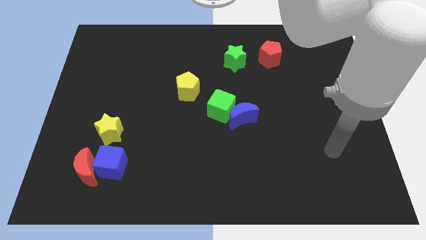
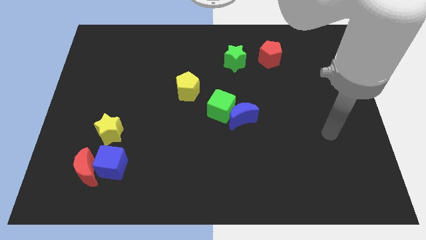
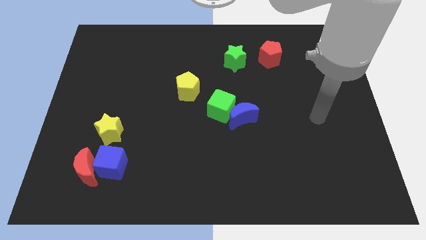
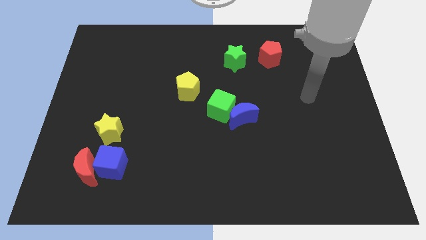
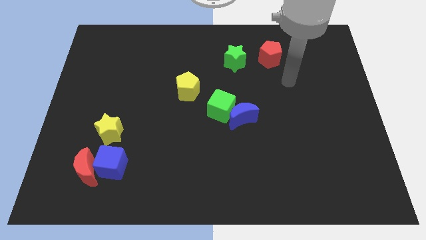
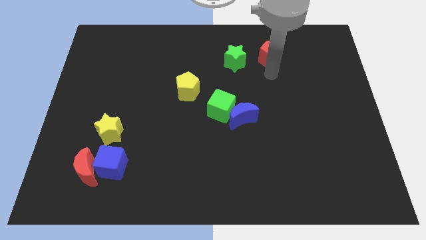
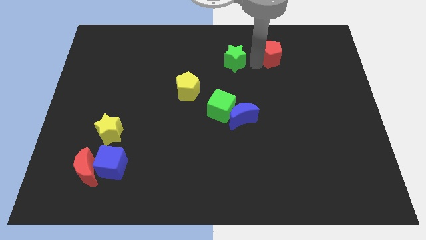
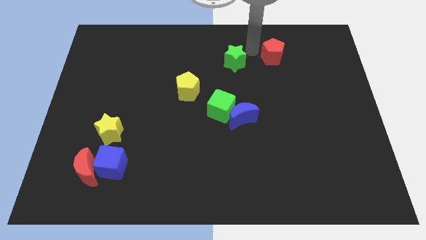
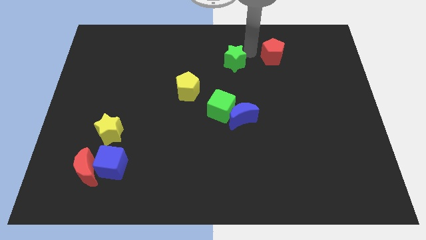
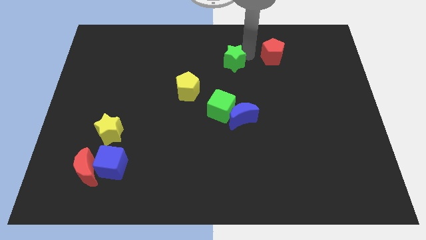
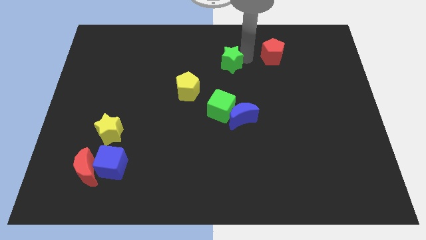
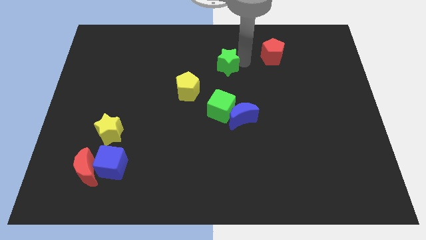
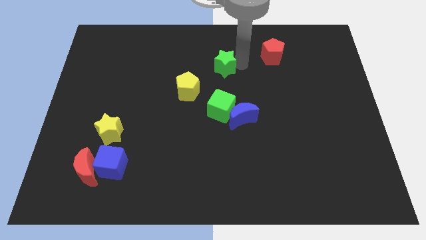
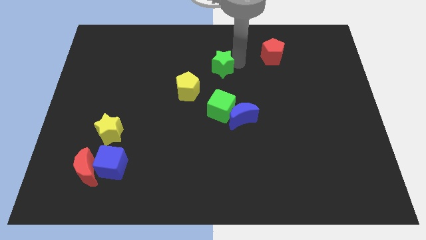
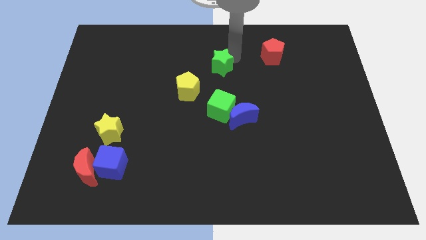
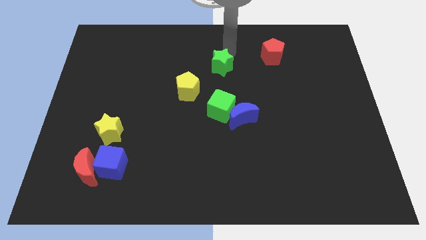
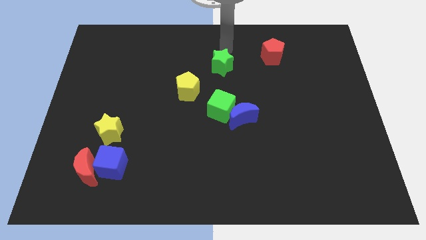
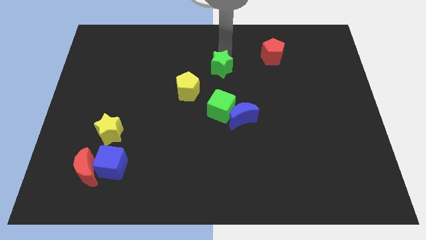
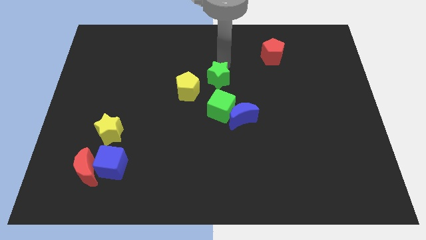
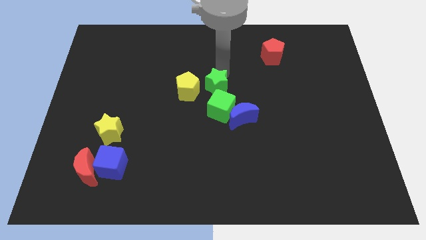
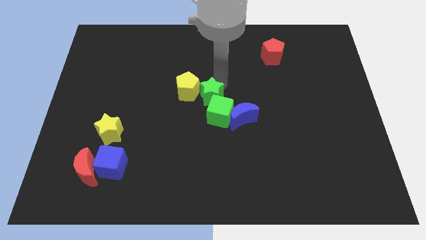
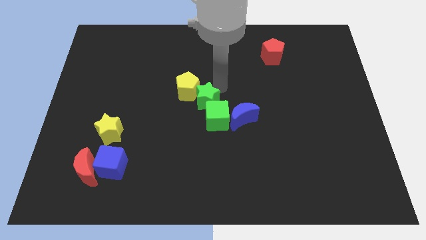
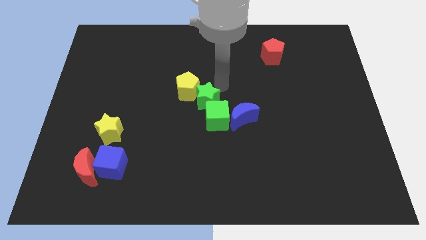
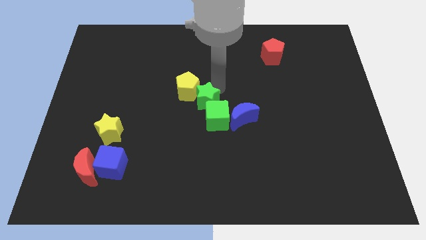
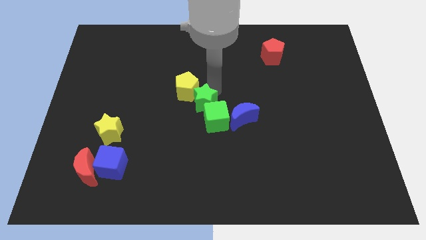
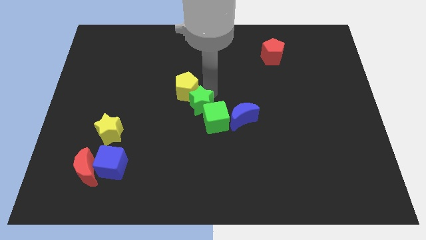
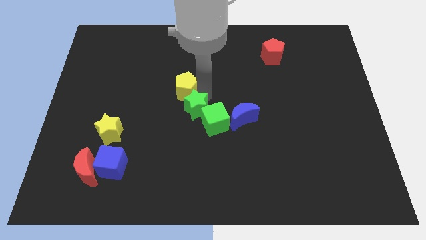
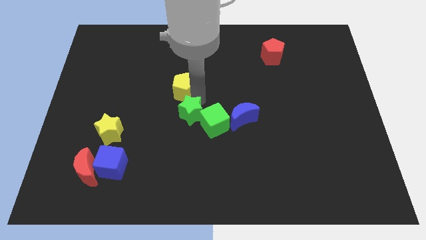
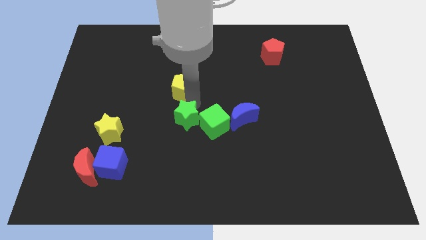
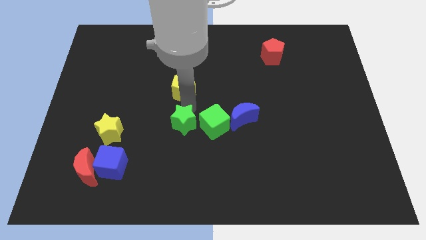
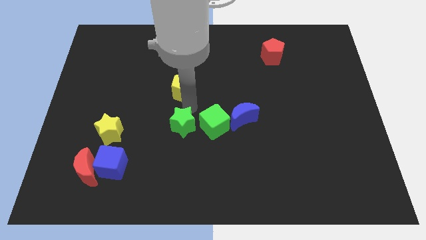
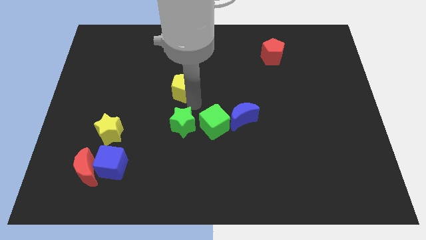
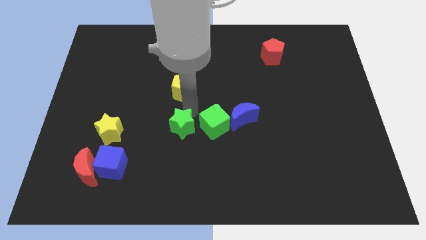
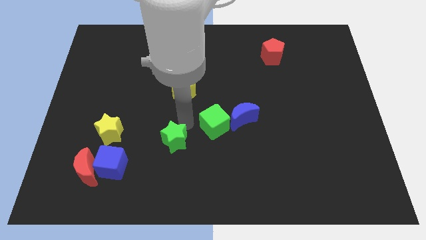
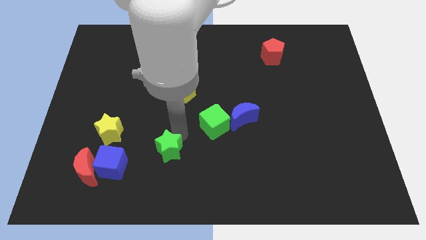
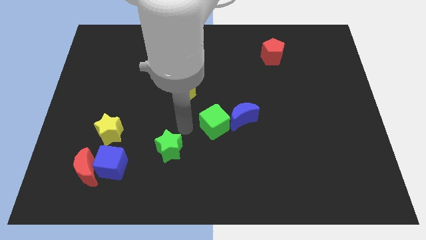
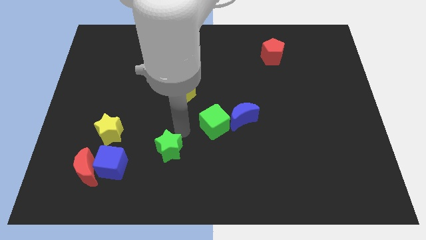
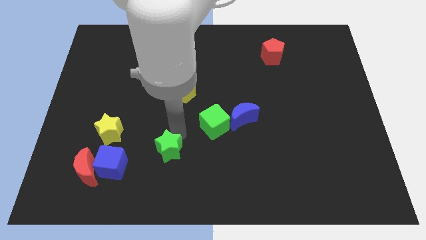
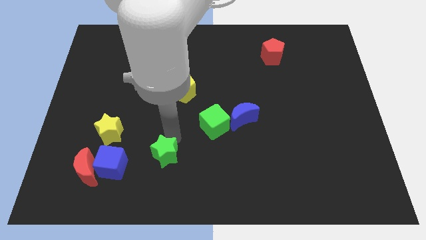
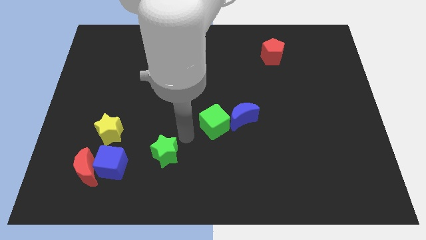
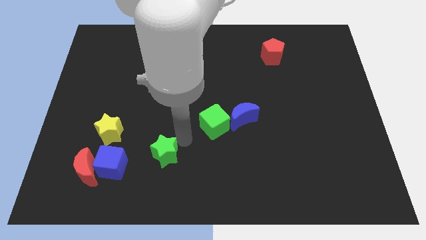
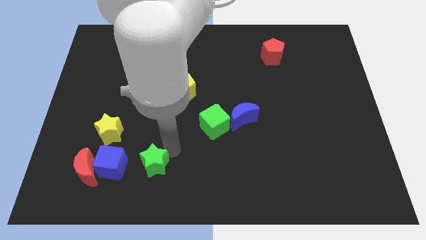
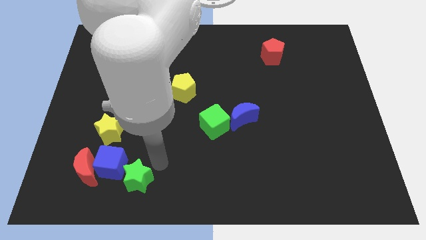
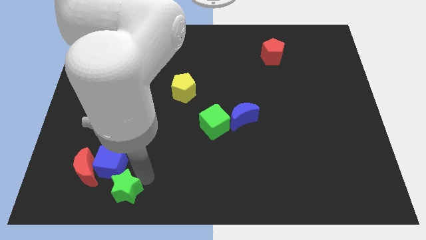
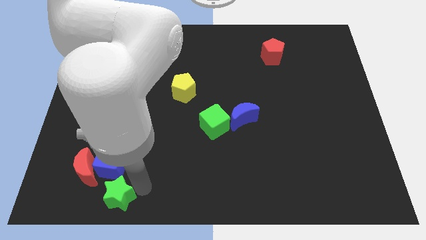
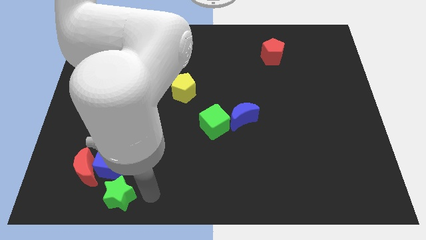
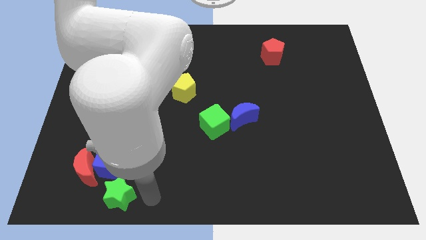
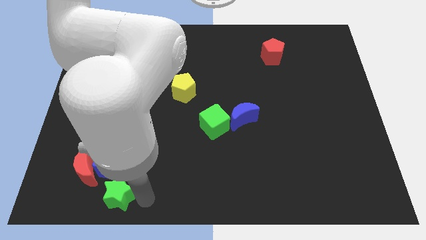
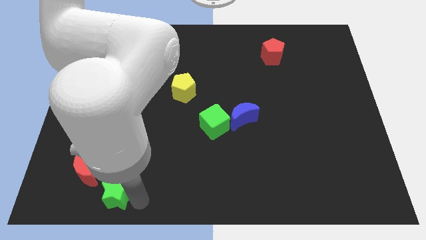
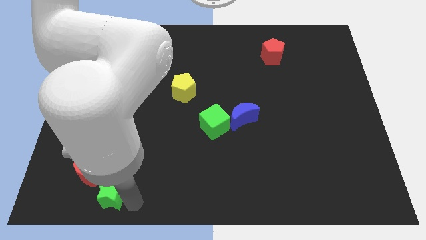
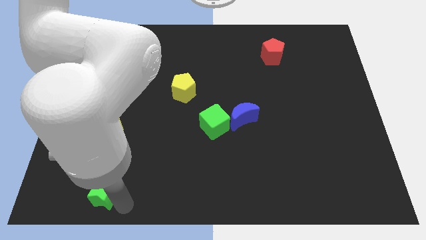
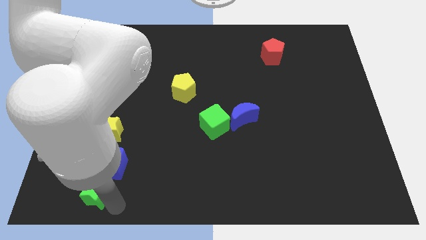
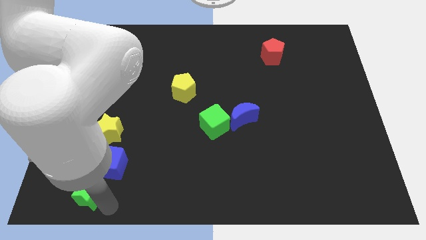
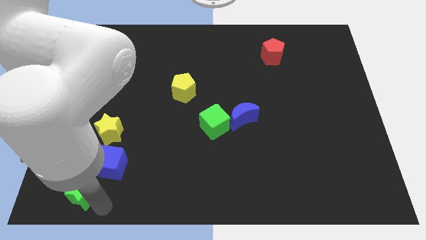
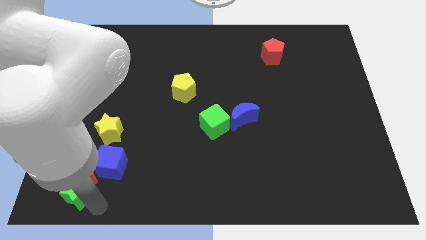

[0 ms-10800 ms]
put the green star to the bottom left of the board

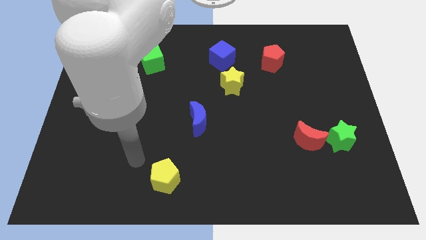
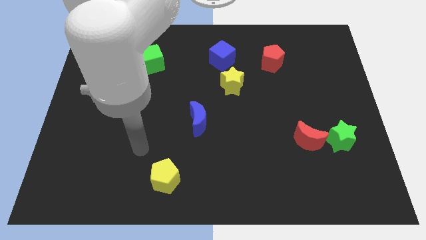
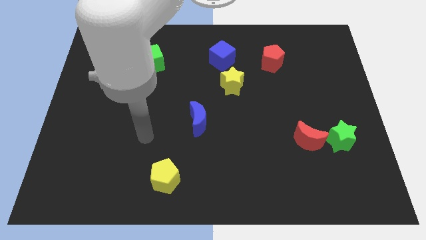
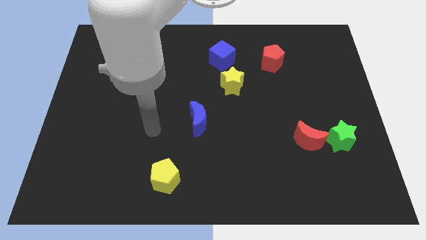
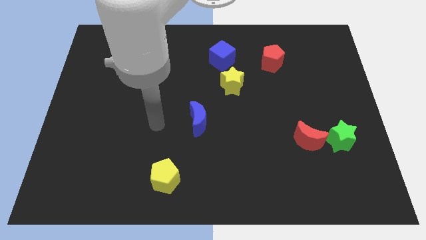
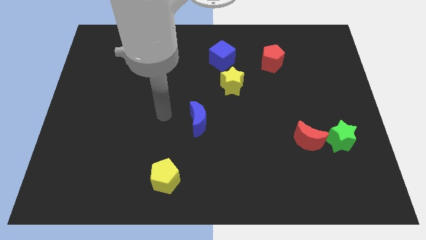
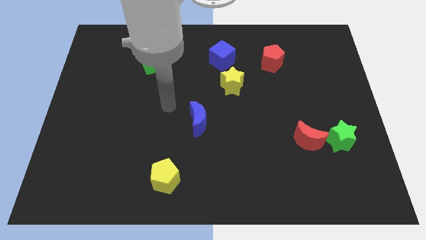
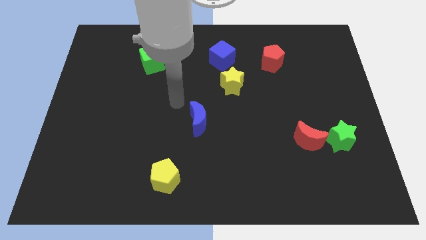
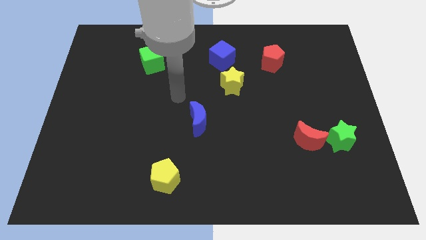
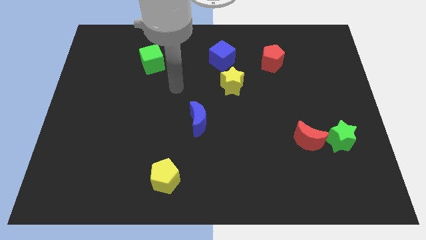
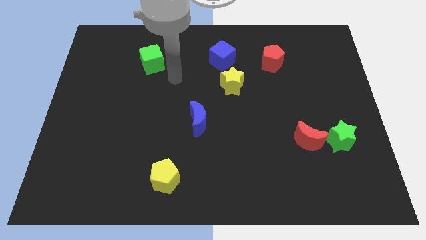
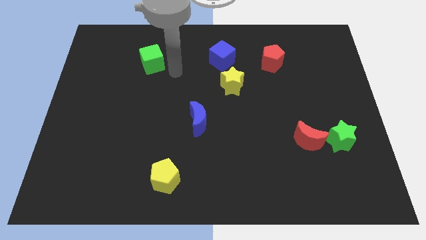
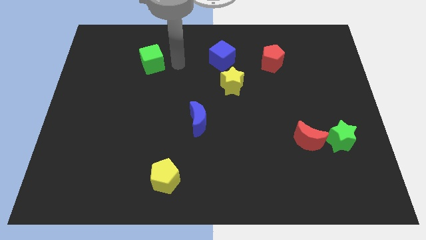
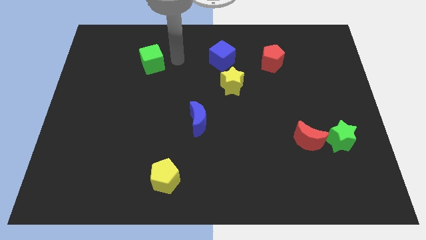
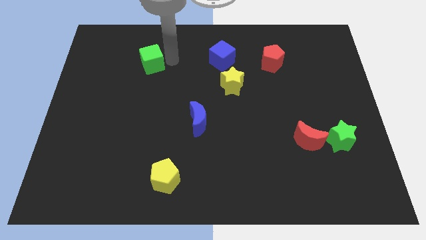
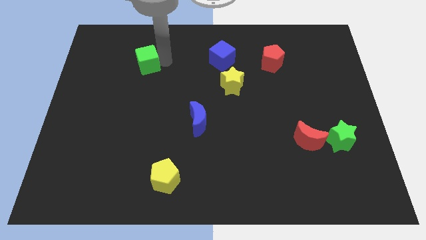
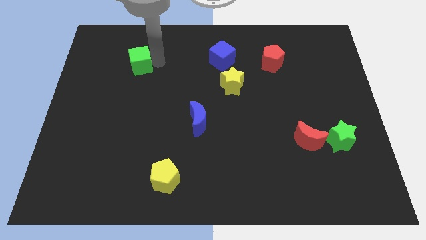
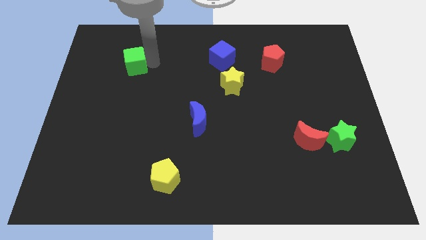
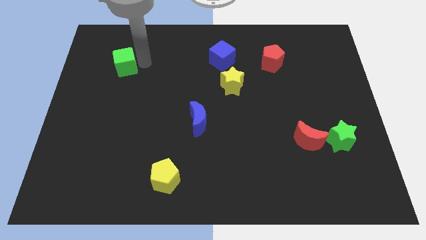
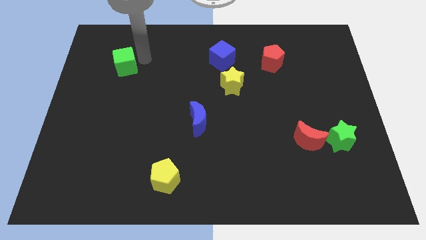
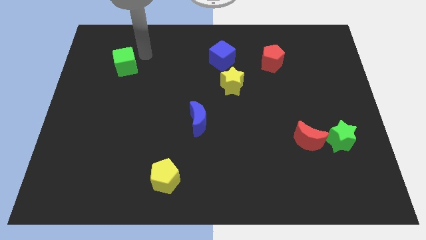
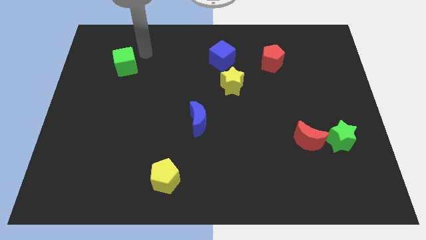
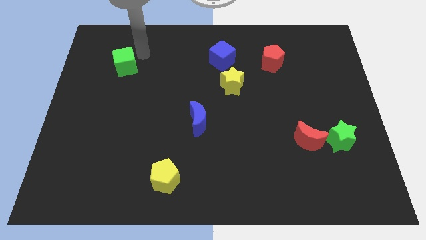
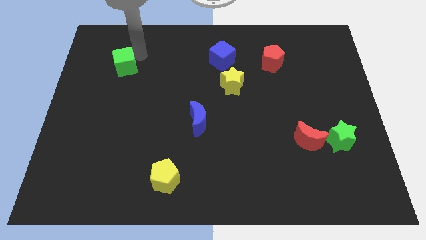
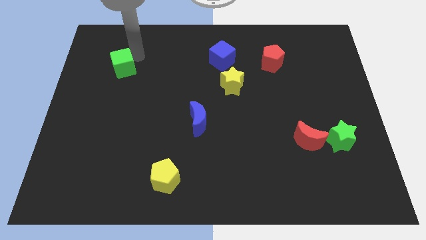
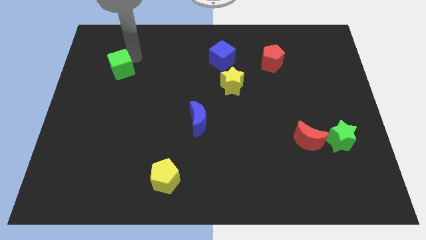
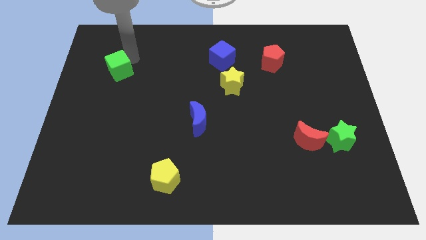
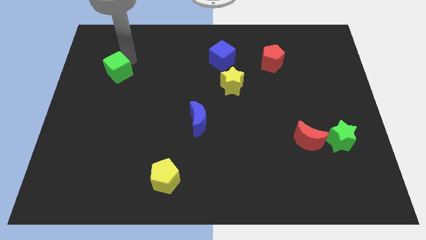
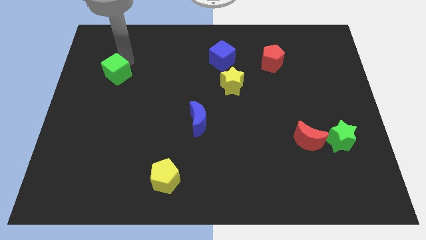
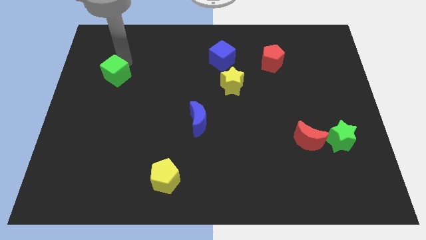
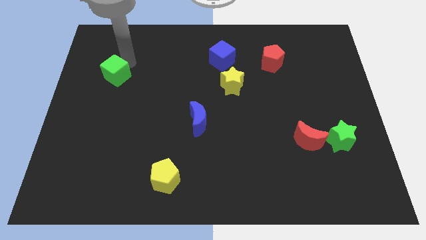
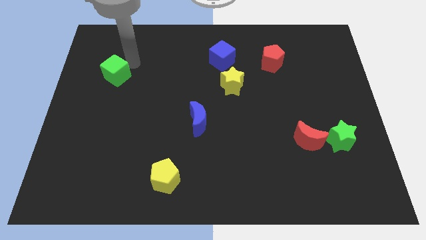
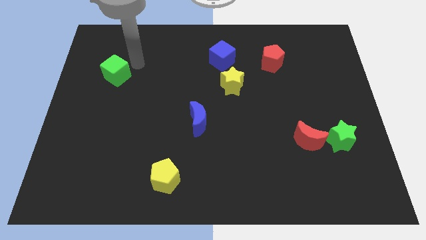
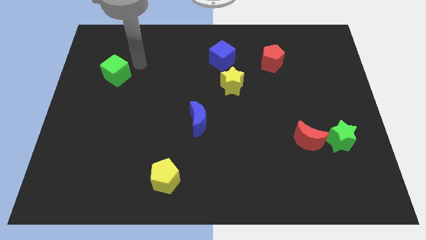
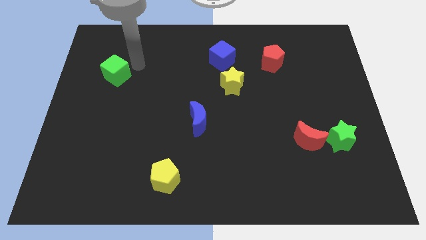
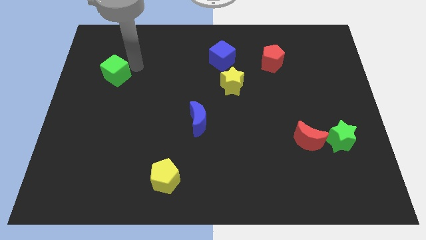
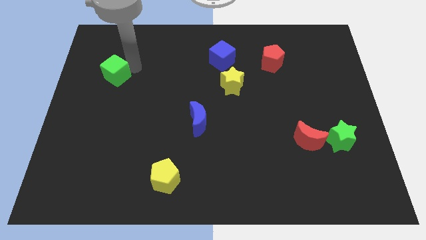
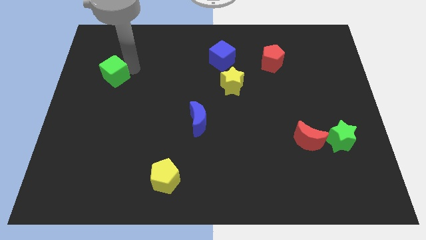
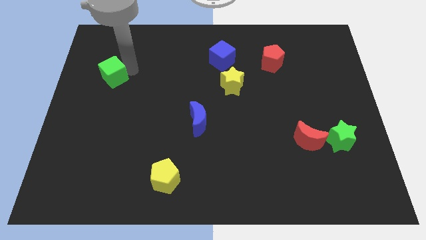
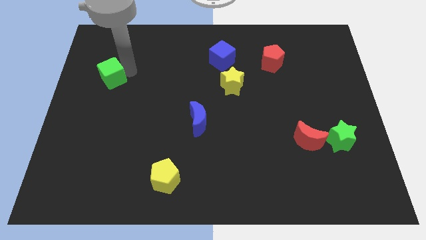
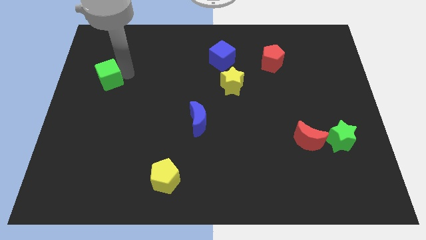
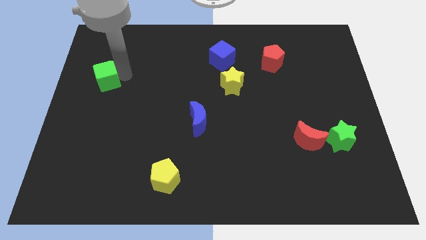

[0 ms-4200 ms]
slide the green cube to the center left
